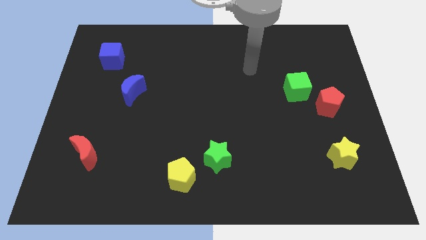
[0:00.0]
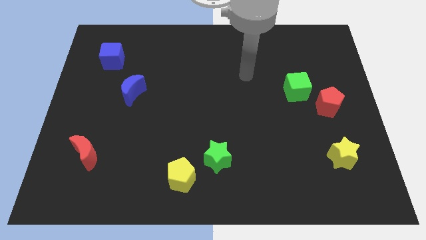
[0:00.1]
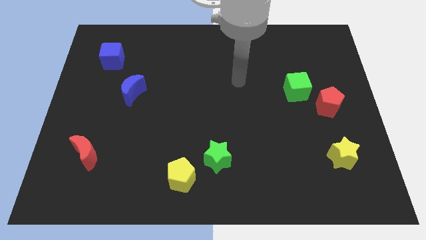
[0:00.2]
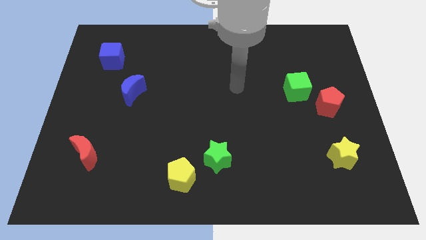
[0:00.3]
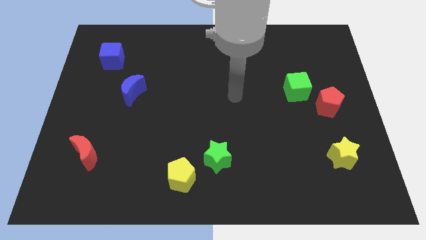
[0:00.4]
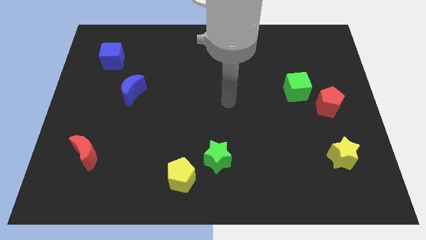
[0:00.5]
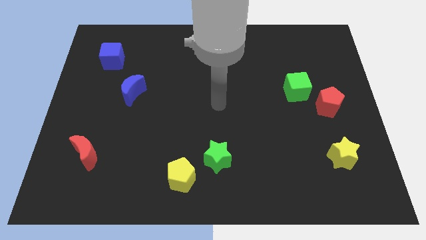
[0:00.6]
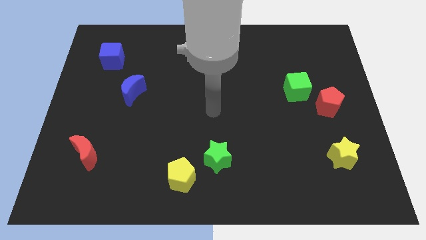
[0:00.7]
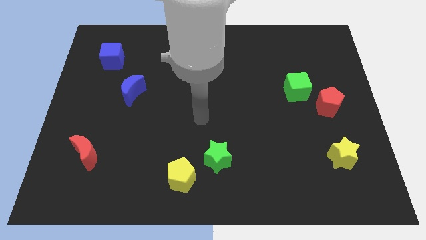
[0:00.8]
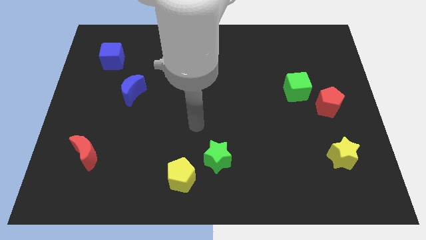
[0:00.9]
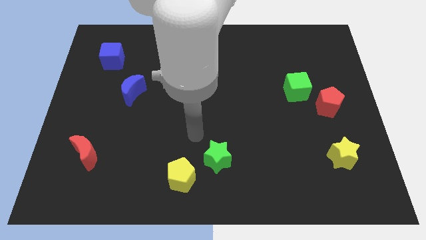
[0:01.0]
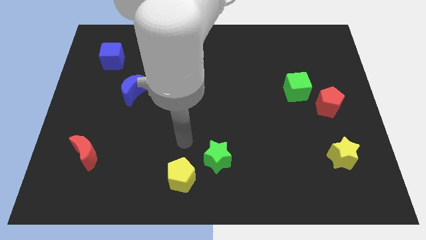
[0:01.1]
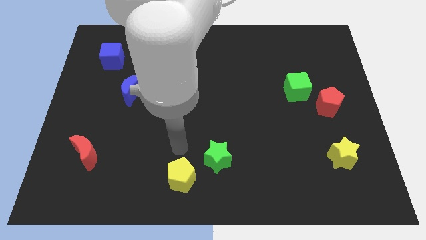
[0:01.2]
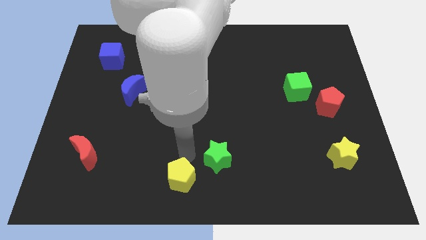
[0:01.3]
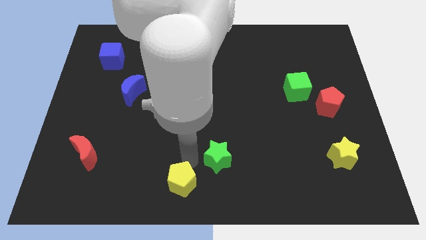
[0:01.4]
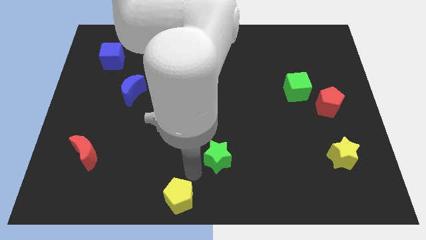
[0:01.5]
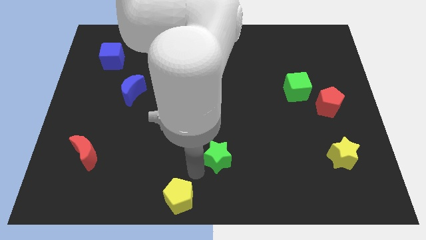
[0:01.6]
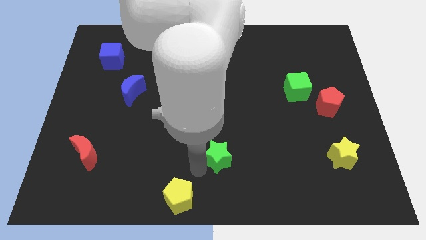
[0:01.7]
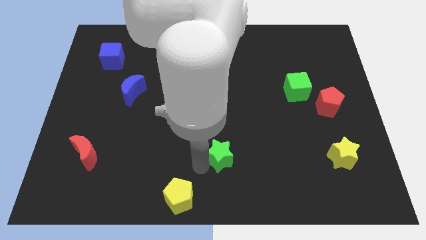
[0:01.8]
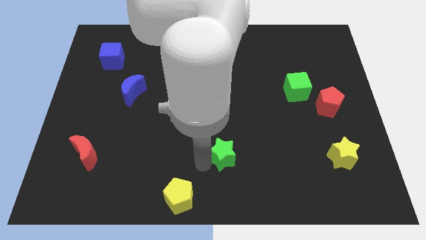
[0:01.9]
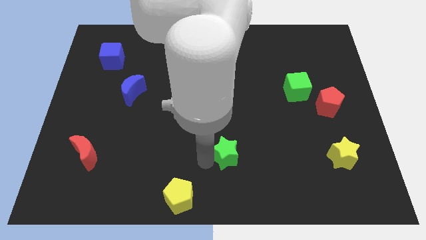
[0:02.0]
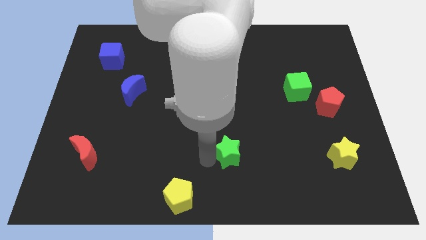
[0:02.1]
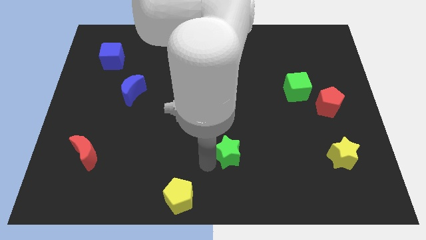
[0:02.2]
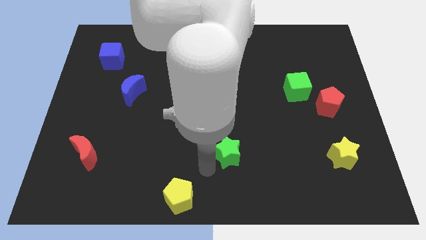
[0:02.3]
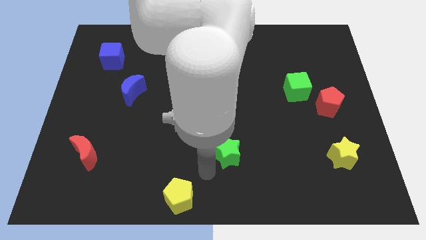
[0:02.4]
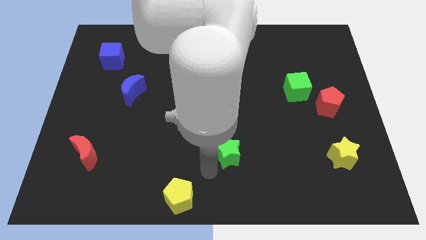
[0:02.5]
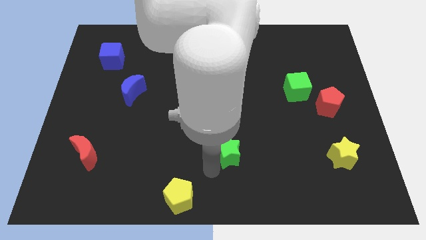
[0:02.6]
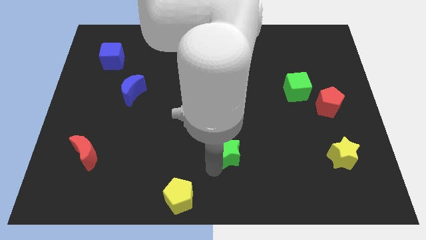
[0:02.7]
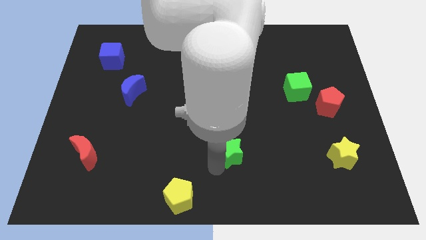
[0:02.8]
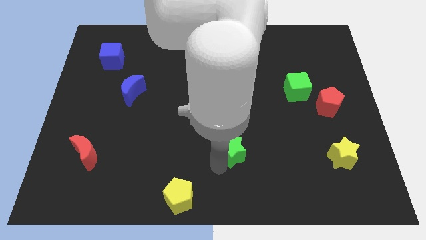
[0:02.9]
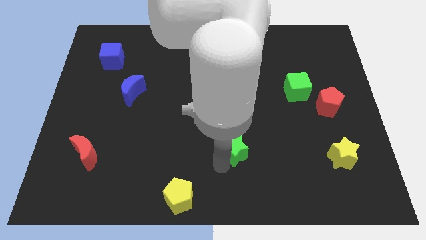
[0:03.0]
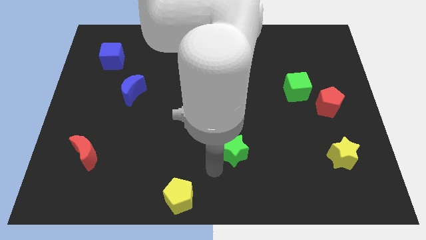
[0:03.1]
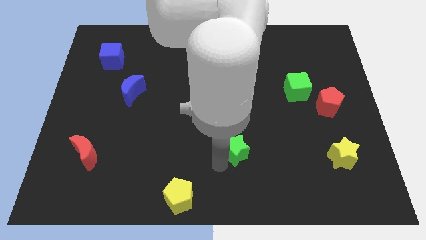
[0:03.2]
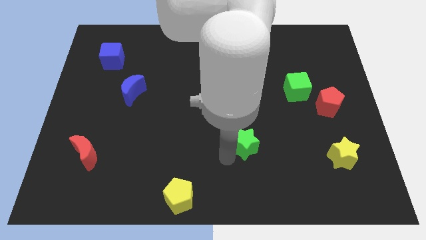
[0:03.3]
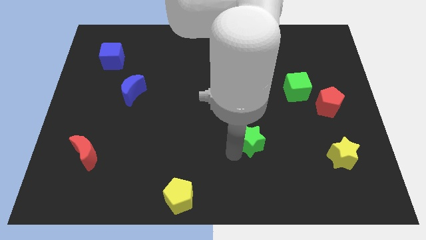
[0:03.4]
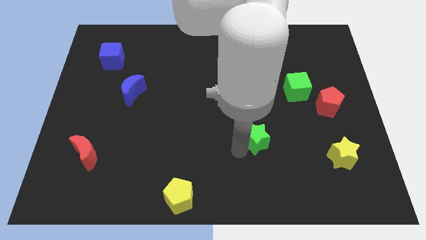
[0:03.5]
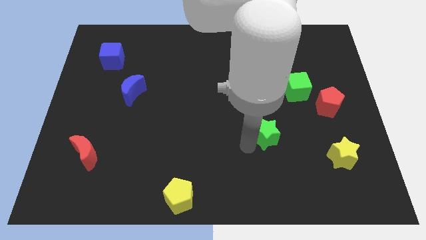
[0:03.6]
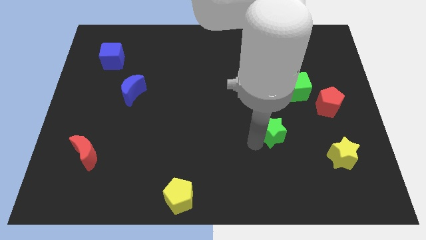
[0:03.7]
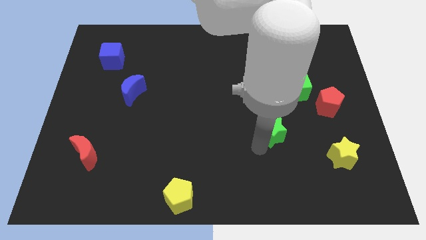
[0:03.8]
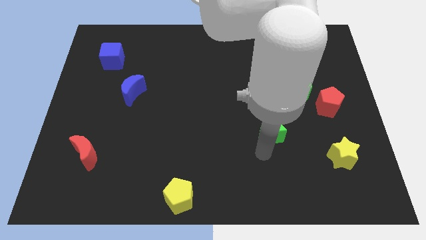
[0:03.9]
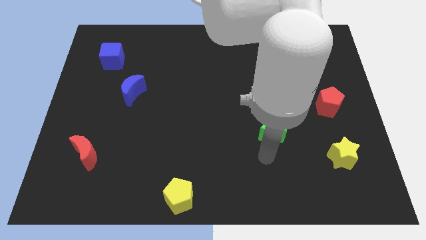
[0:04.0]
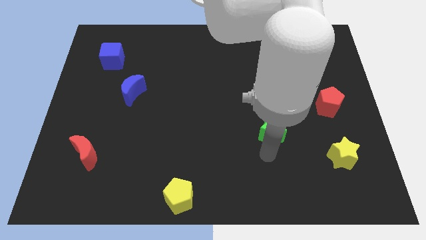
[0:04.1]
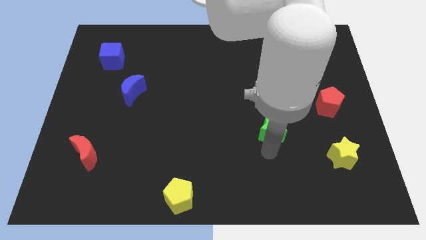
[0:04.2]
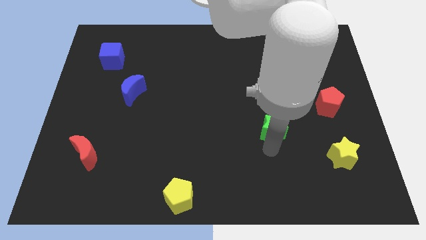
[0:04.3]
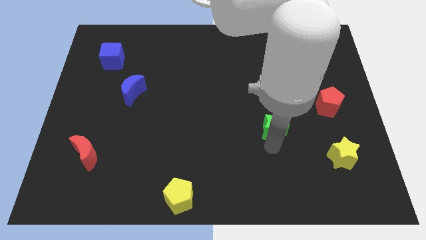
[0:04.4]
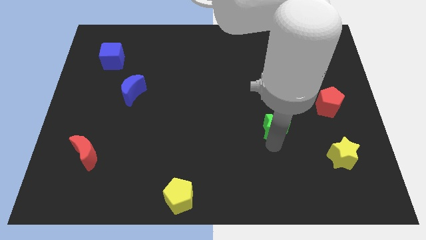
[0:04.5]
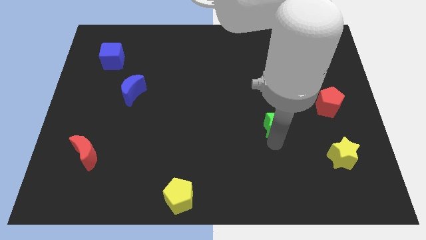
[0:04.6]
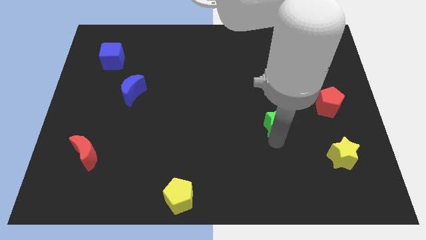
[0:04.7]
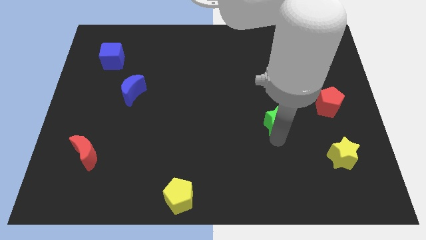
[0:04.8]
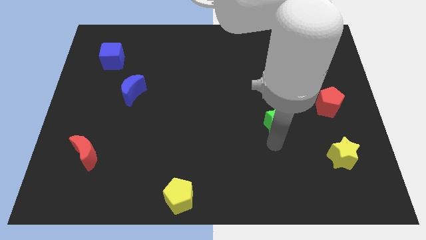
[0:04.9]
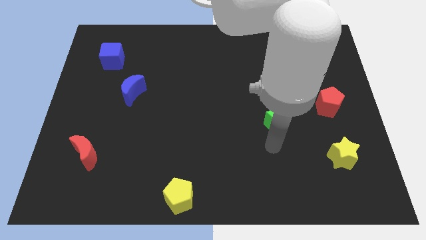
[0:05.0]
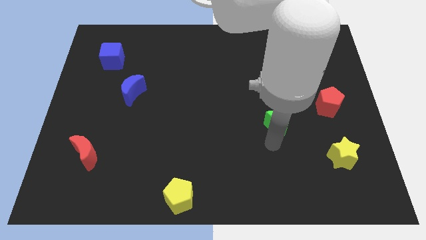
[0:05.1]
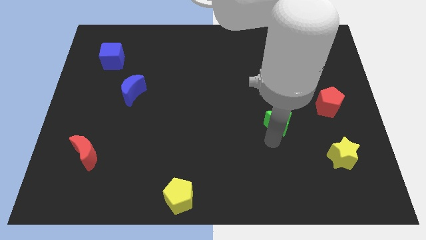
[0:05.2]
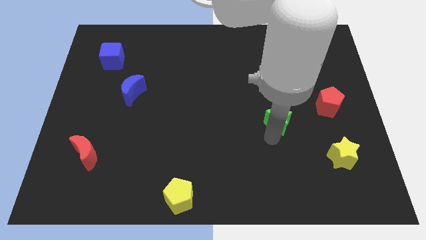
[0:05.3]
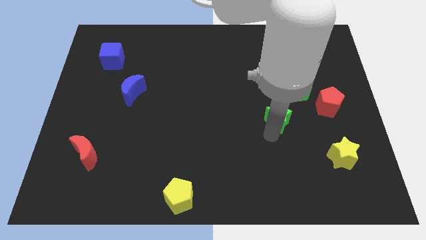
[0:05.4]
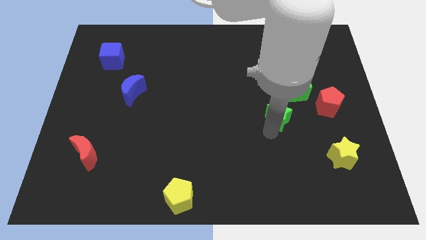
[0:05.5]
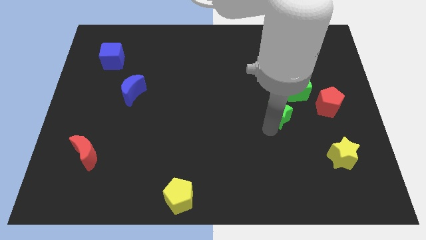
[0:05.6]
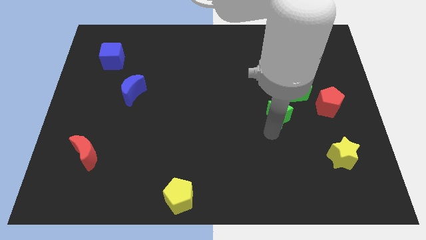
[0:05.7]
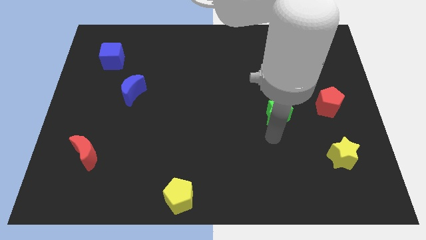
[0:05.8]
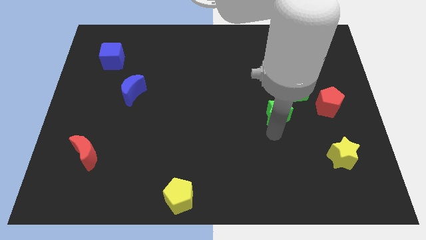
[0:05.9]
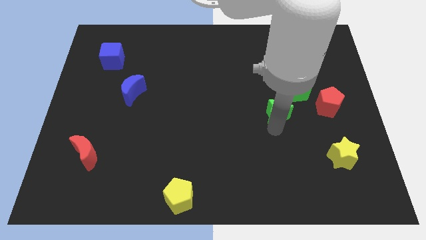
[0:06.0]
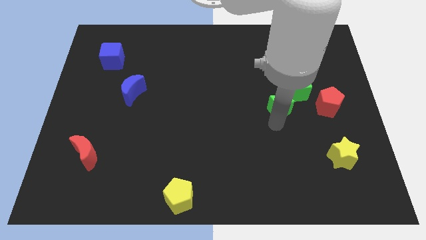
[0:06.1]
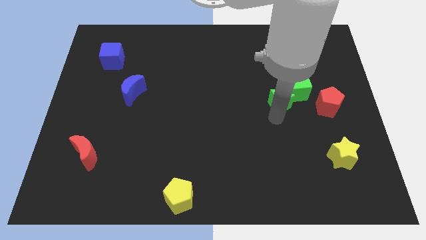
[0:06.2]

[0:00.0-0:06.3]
push the green star towards the green cube
